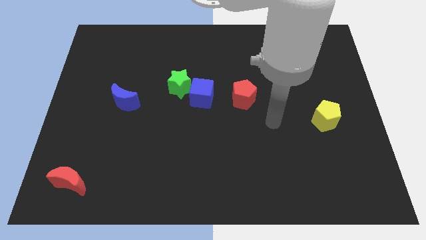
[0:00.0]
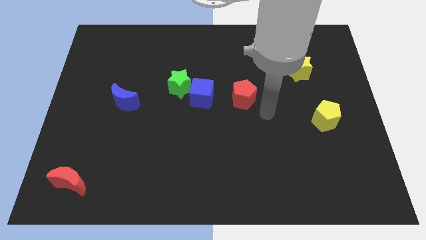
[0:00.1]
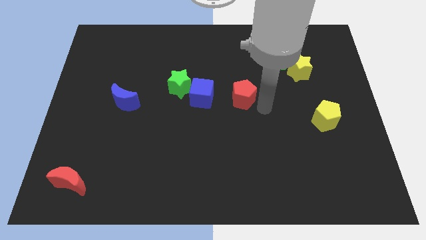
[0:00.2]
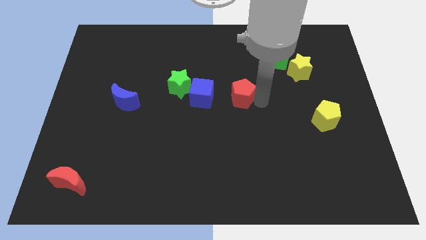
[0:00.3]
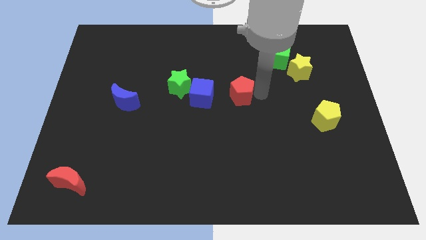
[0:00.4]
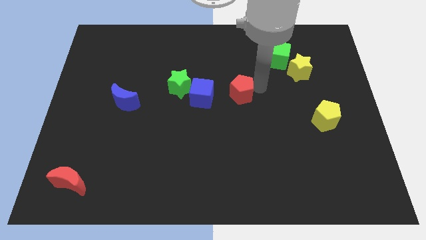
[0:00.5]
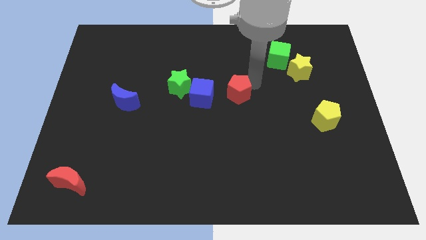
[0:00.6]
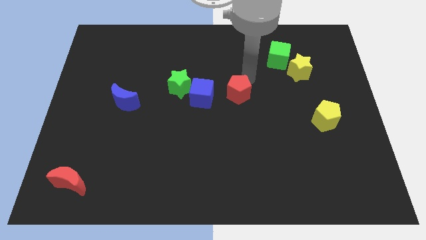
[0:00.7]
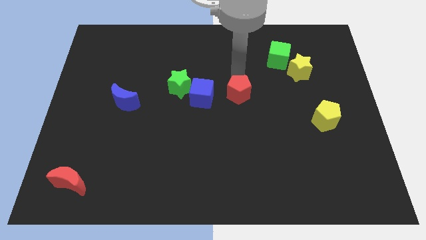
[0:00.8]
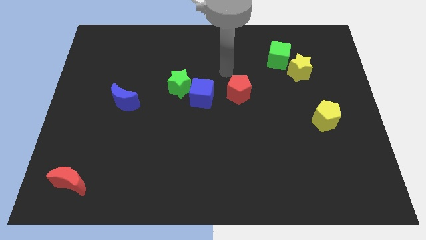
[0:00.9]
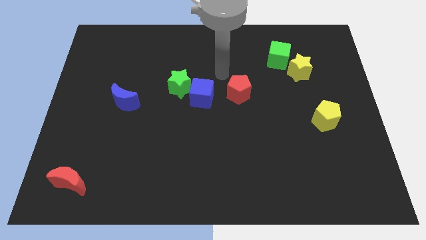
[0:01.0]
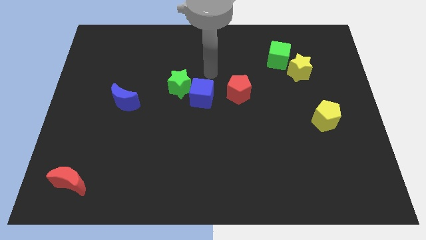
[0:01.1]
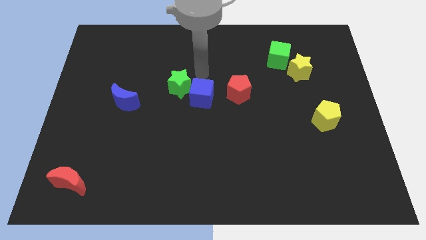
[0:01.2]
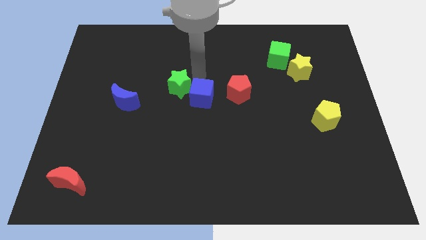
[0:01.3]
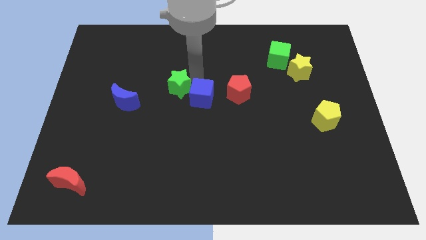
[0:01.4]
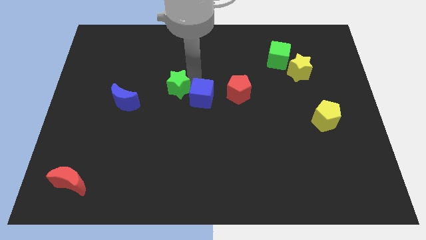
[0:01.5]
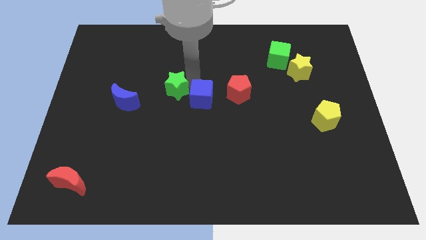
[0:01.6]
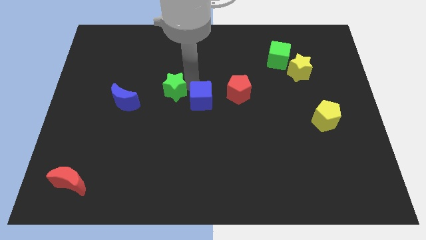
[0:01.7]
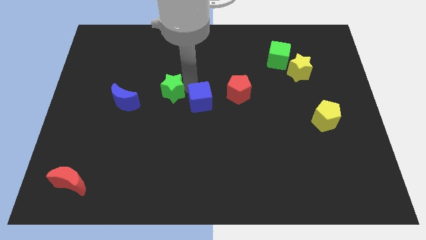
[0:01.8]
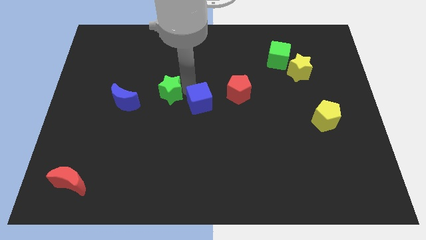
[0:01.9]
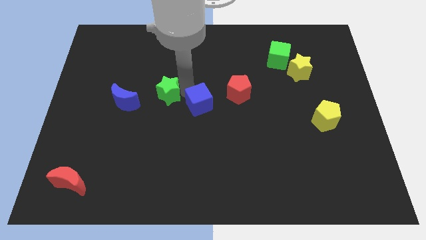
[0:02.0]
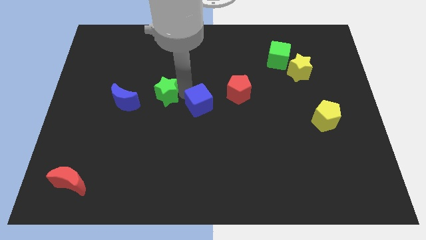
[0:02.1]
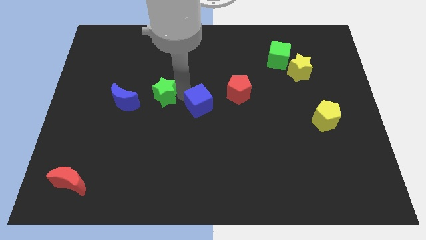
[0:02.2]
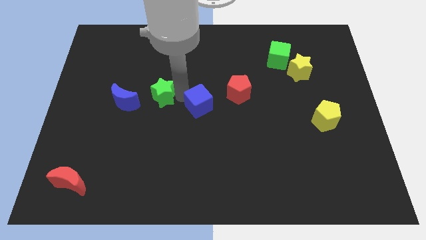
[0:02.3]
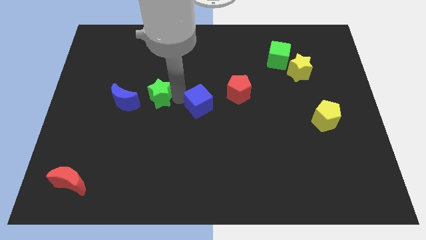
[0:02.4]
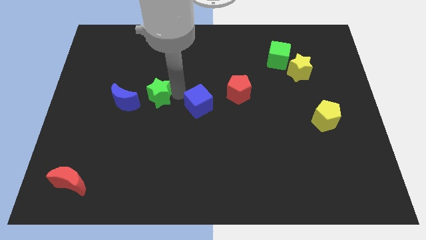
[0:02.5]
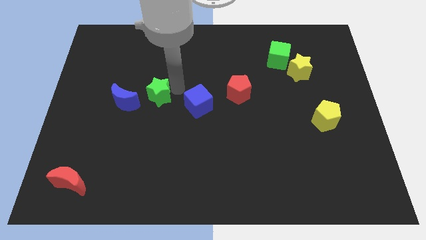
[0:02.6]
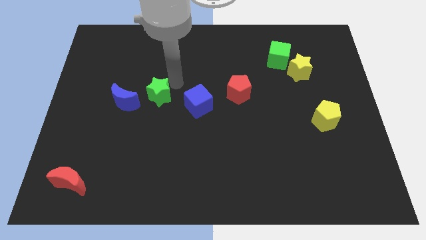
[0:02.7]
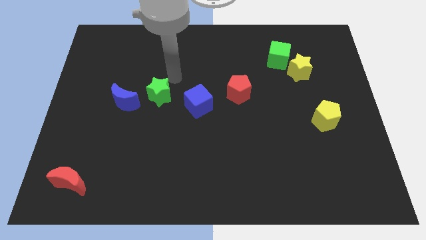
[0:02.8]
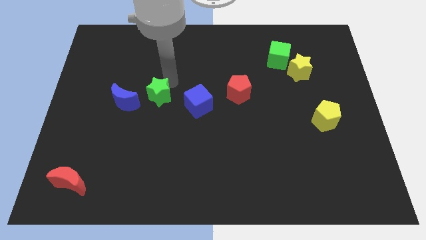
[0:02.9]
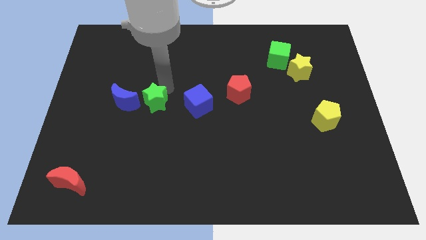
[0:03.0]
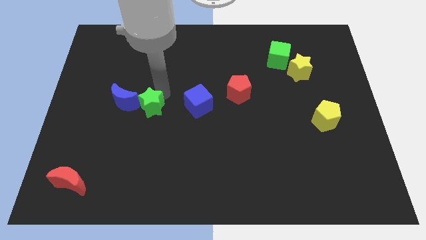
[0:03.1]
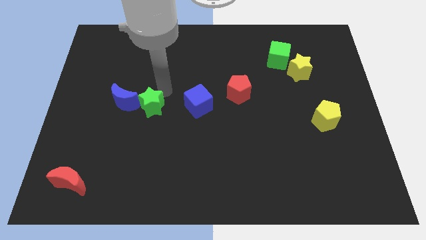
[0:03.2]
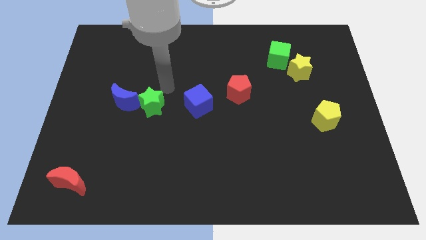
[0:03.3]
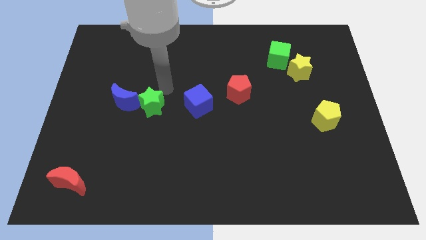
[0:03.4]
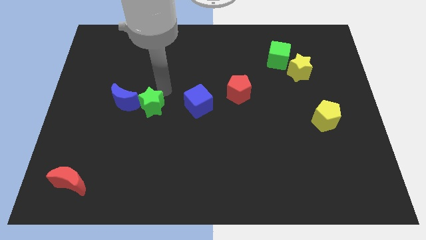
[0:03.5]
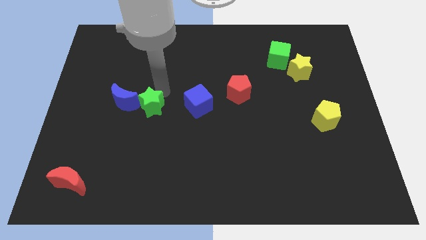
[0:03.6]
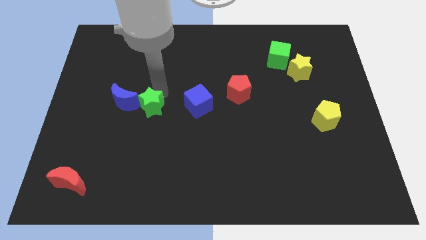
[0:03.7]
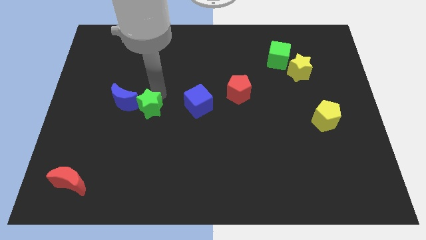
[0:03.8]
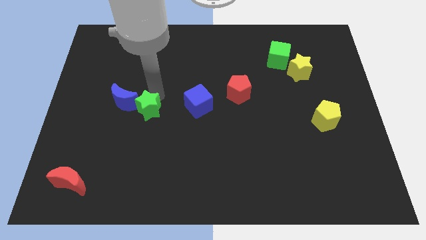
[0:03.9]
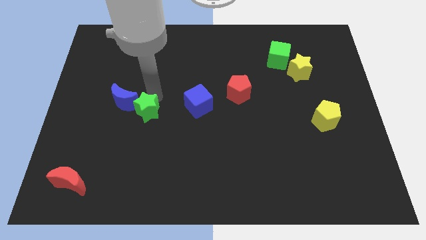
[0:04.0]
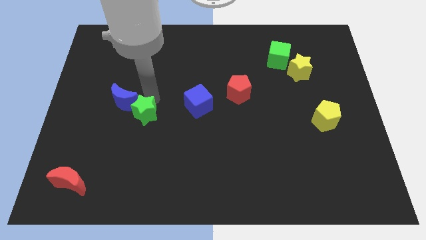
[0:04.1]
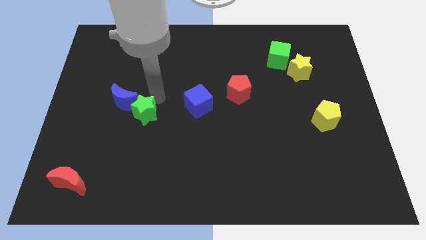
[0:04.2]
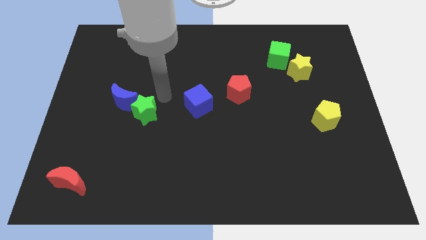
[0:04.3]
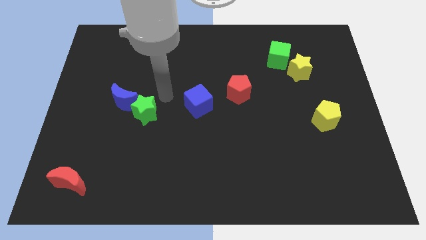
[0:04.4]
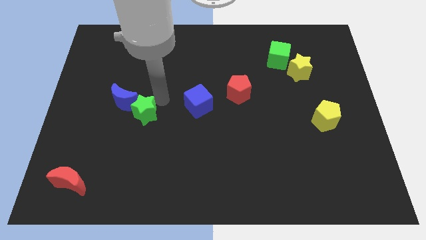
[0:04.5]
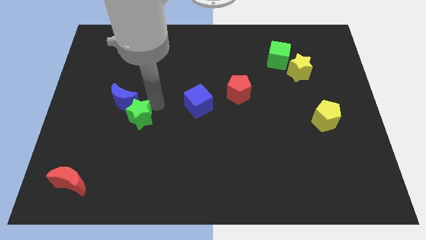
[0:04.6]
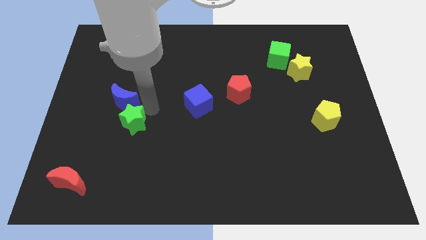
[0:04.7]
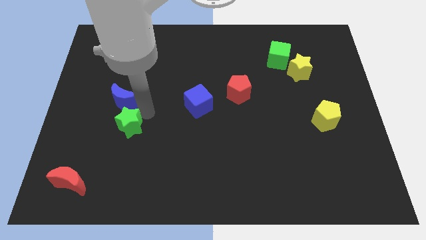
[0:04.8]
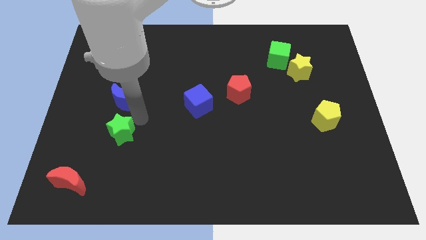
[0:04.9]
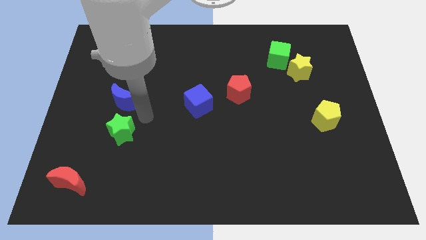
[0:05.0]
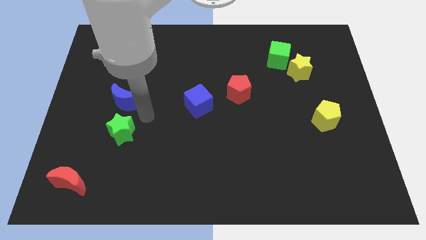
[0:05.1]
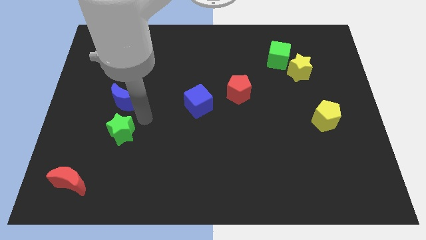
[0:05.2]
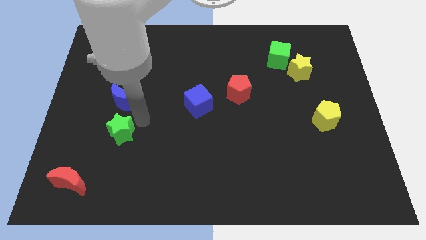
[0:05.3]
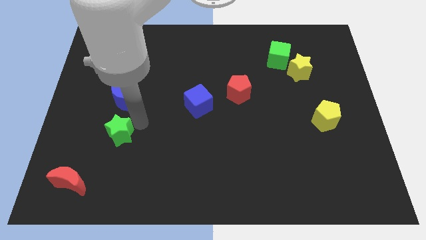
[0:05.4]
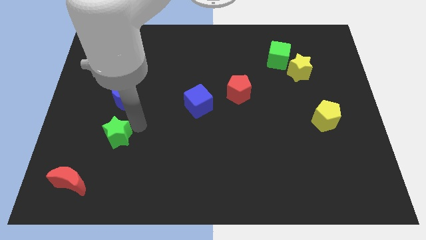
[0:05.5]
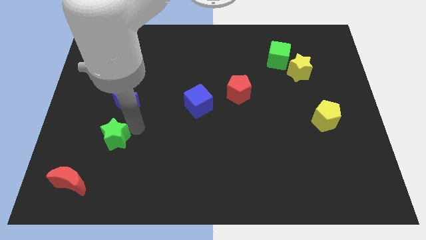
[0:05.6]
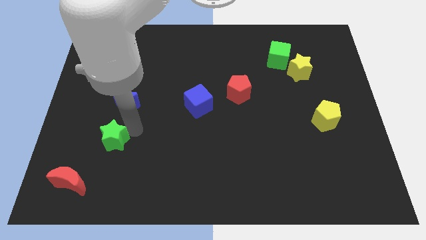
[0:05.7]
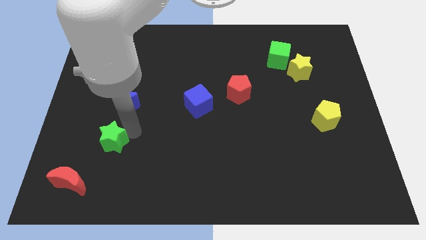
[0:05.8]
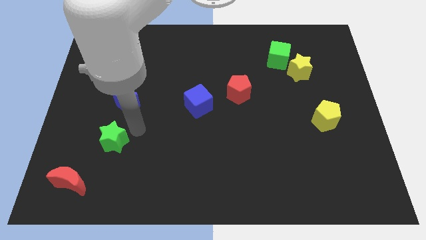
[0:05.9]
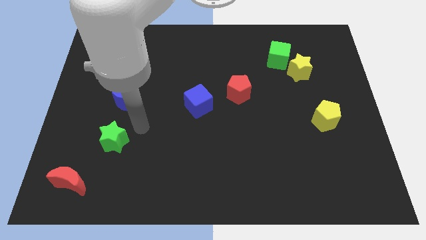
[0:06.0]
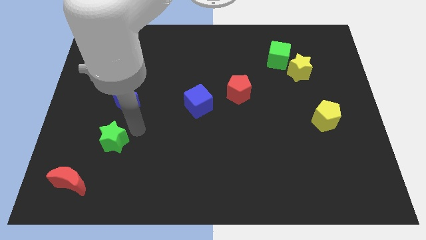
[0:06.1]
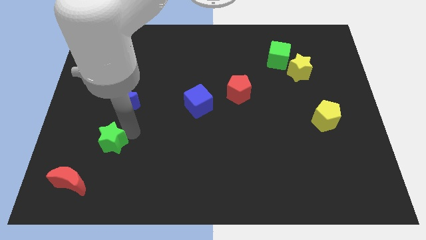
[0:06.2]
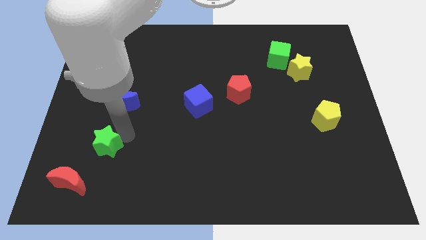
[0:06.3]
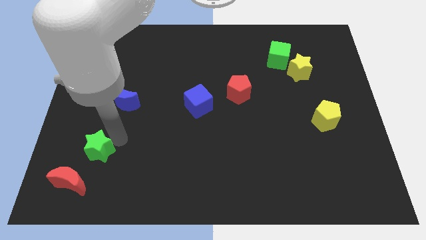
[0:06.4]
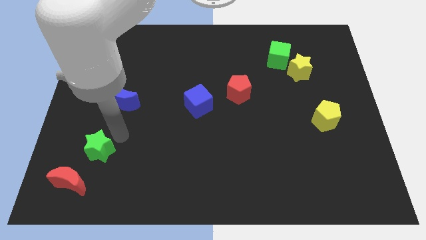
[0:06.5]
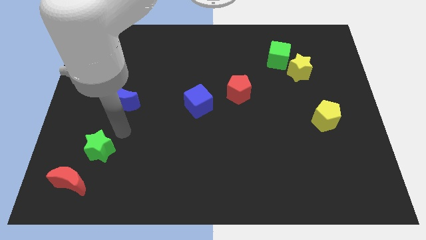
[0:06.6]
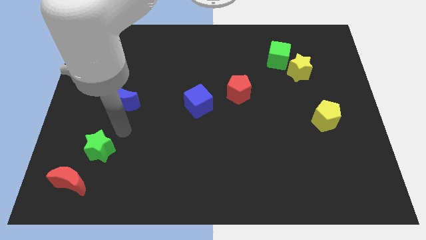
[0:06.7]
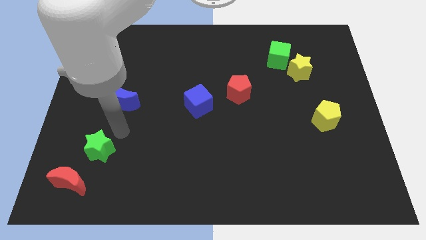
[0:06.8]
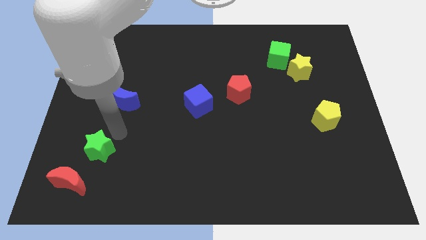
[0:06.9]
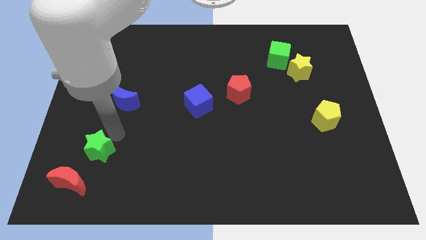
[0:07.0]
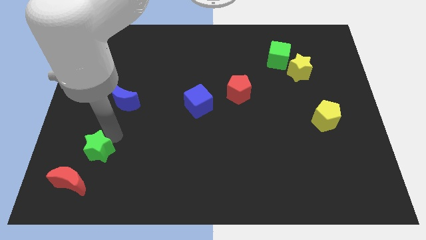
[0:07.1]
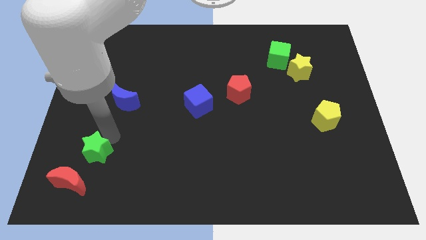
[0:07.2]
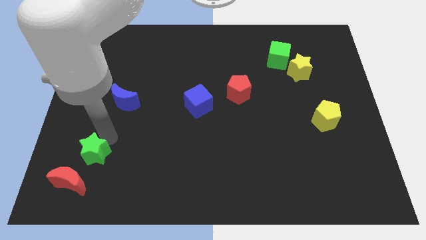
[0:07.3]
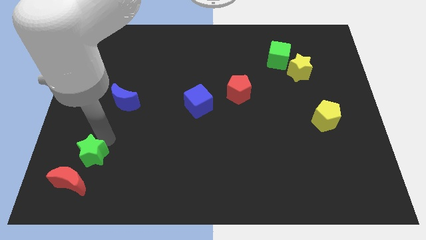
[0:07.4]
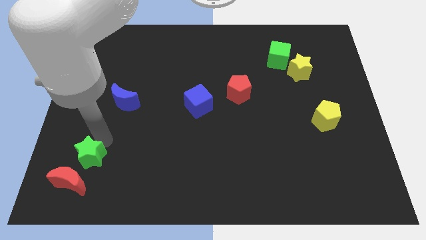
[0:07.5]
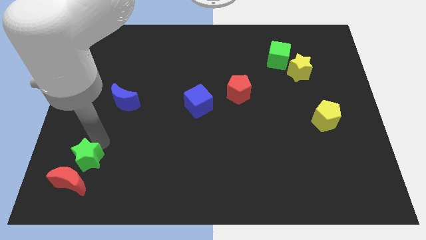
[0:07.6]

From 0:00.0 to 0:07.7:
put the green star close to the red moon

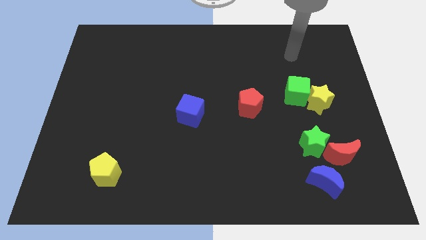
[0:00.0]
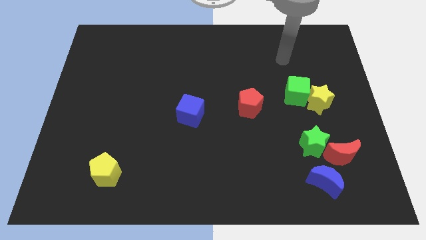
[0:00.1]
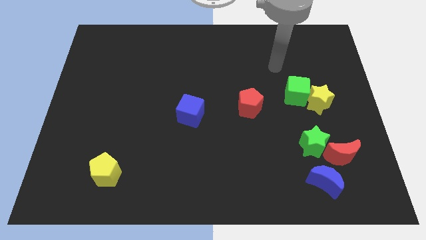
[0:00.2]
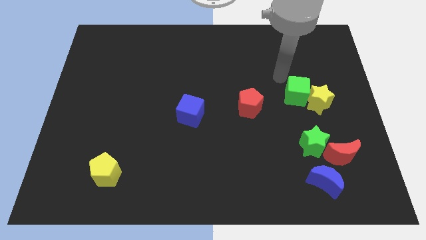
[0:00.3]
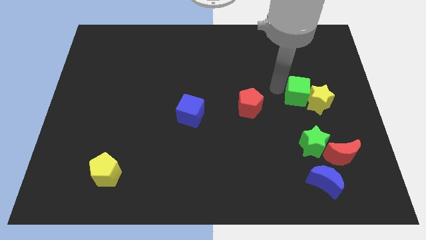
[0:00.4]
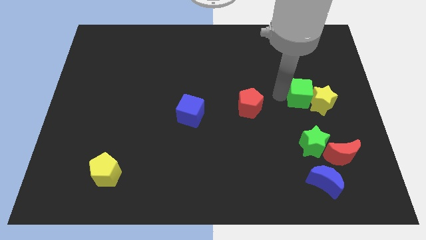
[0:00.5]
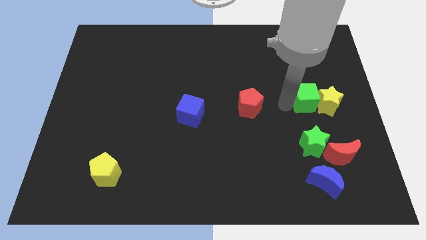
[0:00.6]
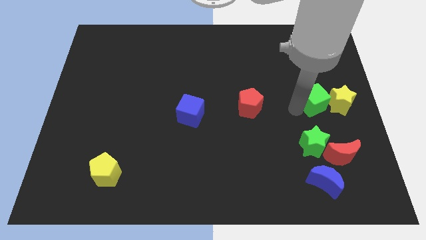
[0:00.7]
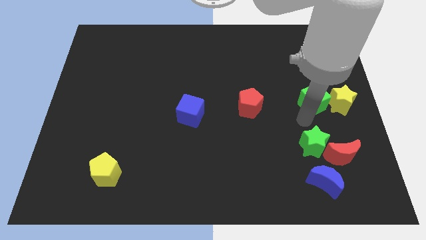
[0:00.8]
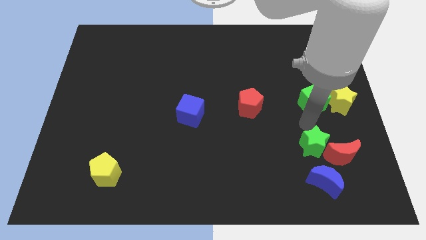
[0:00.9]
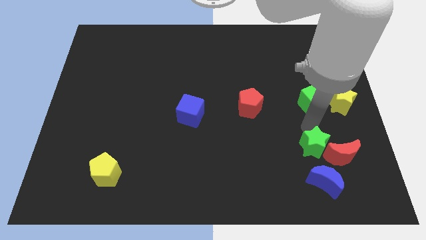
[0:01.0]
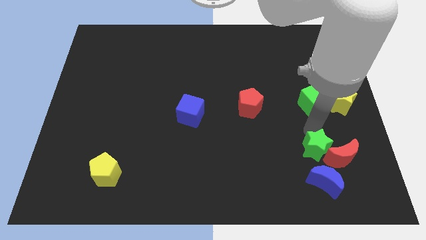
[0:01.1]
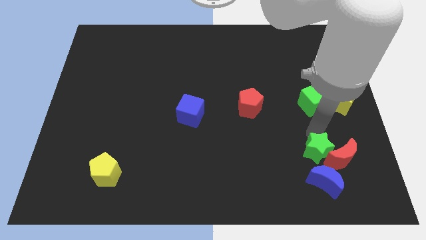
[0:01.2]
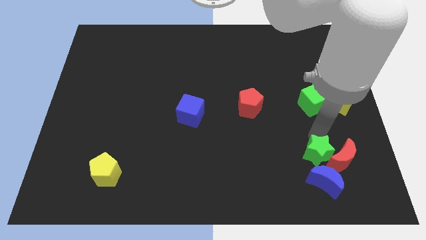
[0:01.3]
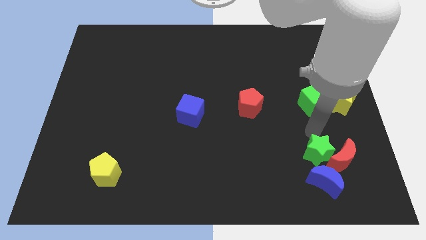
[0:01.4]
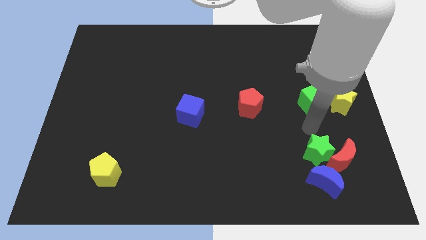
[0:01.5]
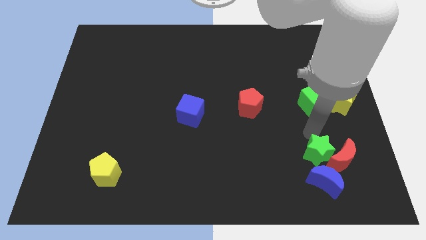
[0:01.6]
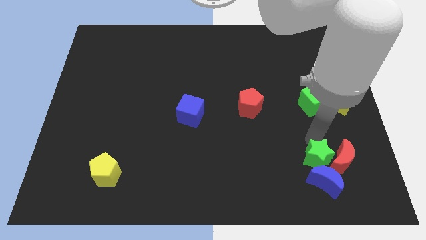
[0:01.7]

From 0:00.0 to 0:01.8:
slide the green star close to the blue moon
